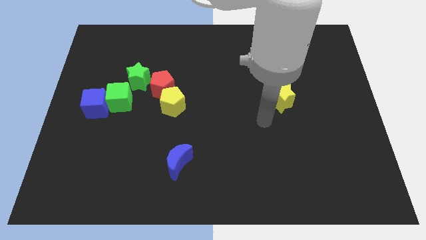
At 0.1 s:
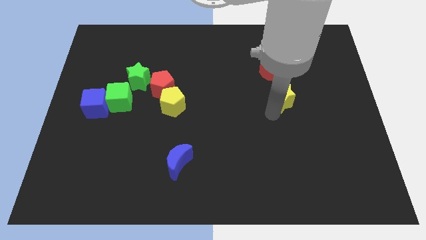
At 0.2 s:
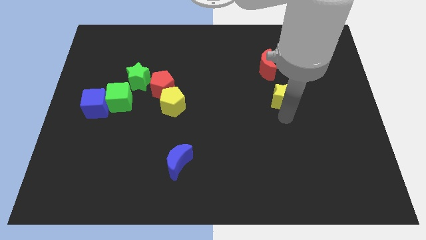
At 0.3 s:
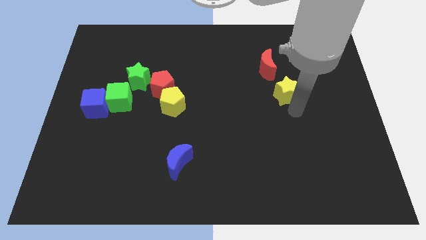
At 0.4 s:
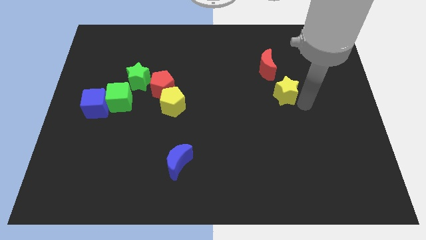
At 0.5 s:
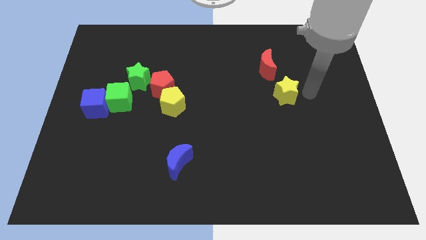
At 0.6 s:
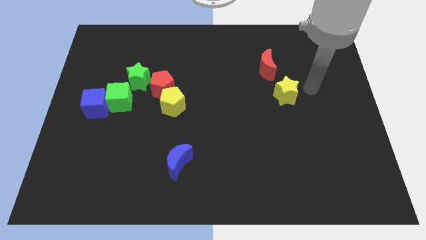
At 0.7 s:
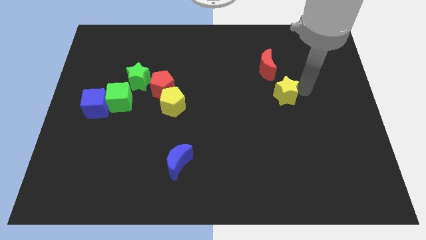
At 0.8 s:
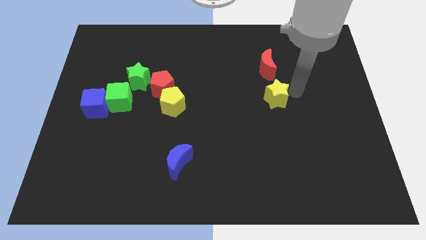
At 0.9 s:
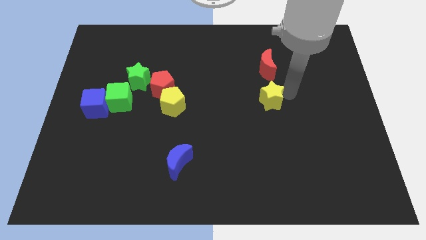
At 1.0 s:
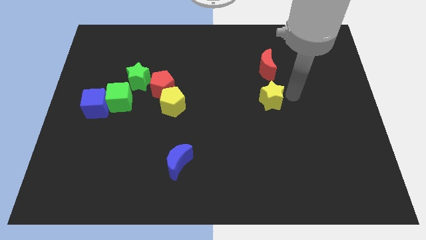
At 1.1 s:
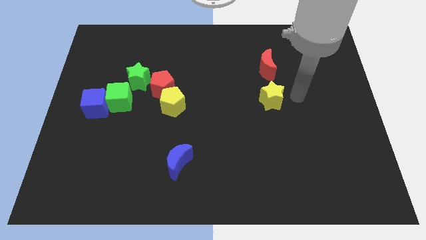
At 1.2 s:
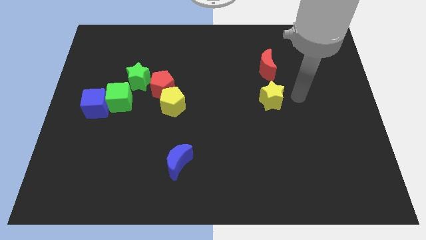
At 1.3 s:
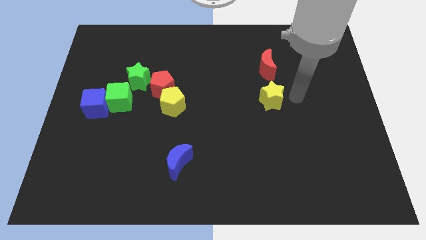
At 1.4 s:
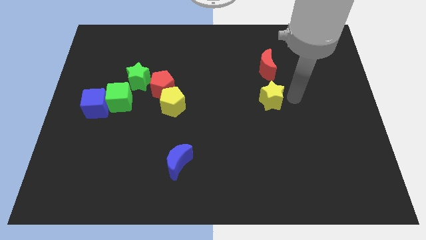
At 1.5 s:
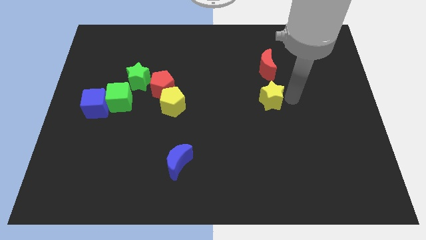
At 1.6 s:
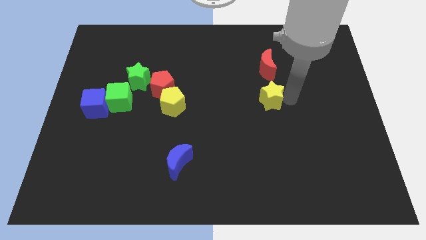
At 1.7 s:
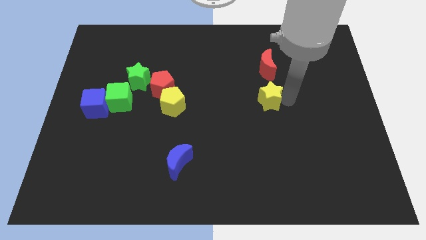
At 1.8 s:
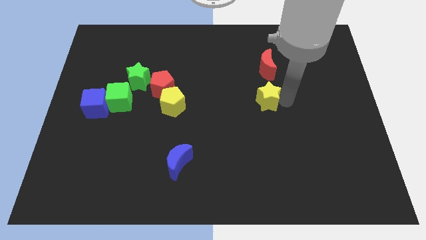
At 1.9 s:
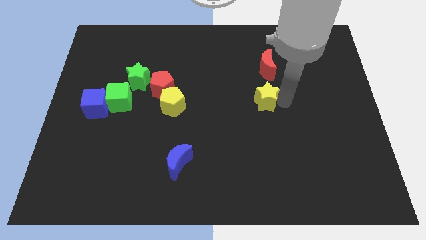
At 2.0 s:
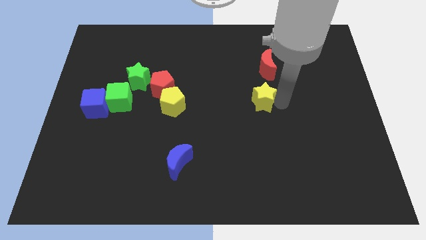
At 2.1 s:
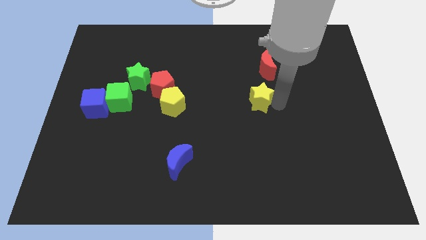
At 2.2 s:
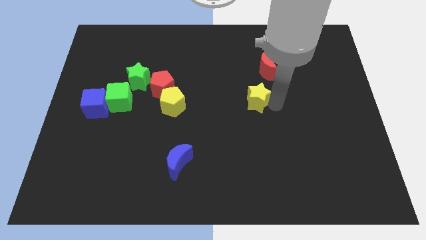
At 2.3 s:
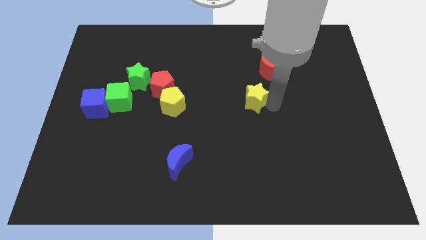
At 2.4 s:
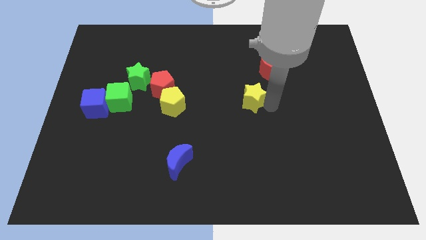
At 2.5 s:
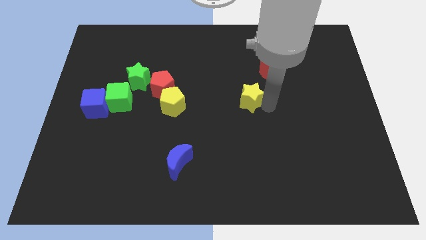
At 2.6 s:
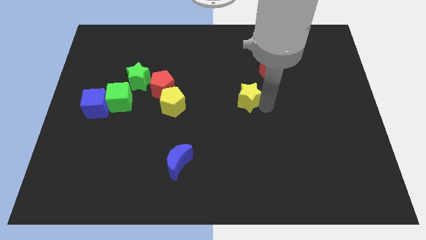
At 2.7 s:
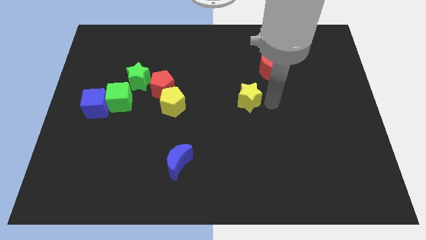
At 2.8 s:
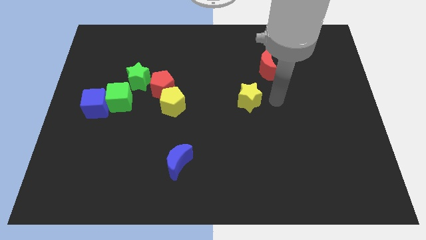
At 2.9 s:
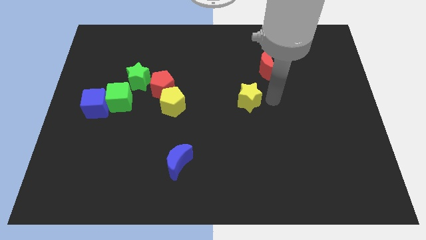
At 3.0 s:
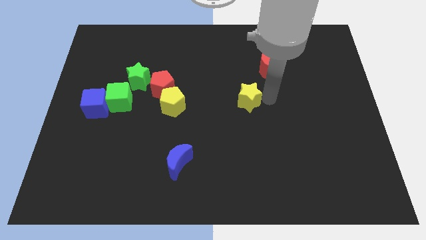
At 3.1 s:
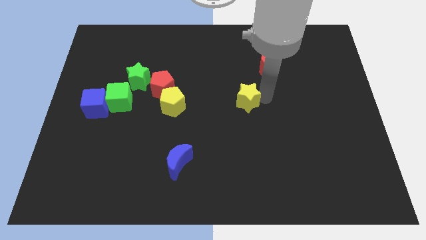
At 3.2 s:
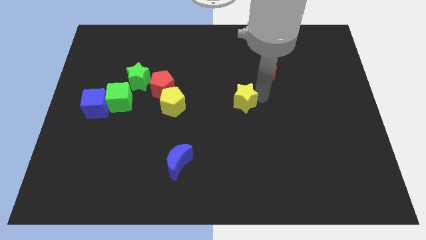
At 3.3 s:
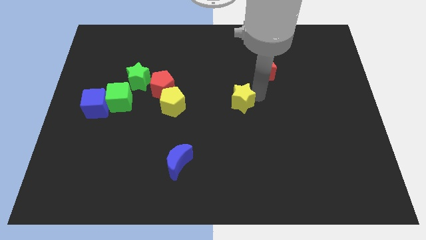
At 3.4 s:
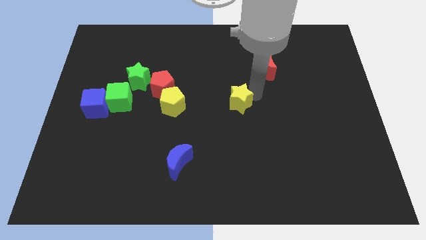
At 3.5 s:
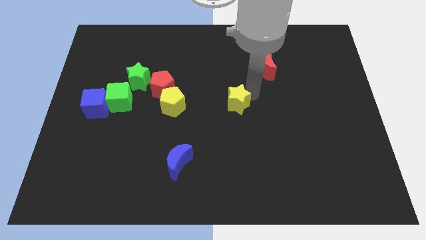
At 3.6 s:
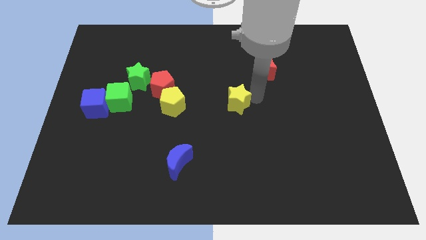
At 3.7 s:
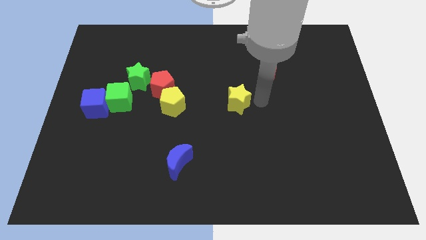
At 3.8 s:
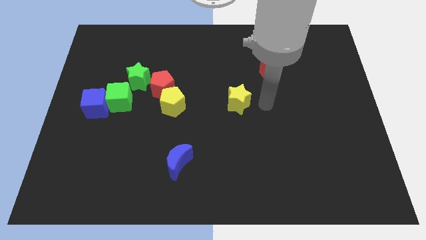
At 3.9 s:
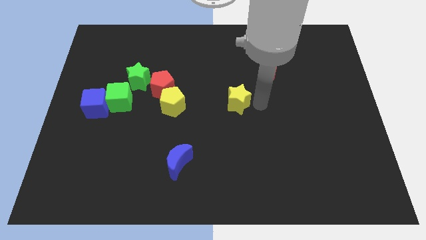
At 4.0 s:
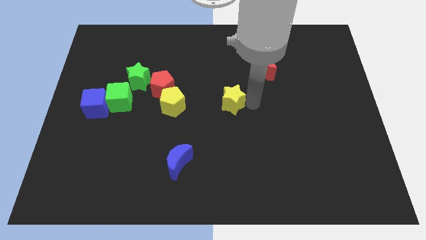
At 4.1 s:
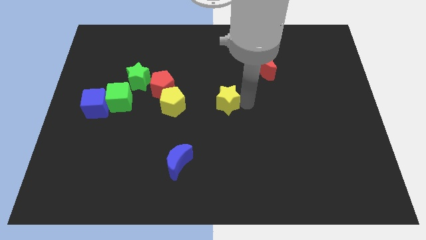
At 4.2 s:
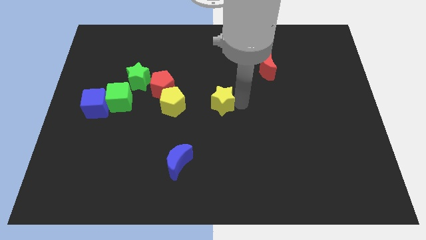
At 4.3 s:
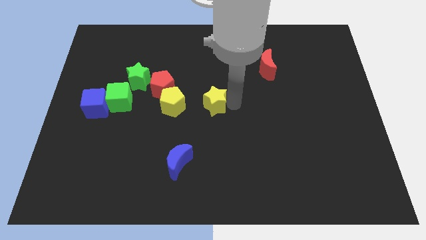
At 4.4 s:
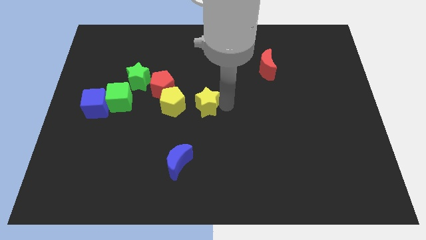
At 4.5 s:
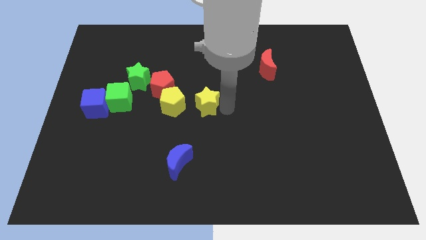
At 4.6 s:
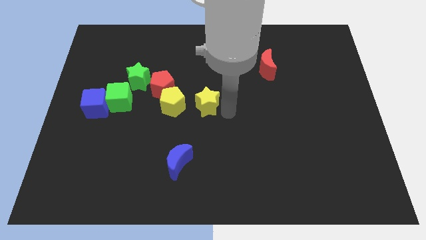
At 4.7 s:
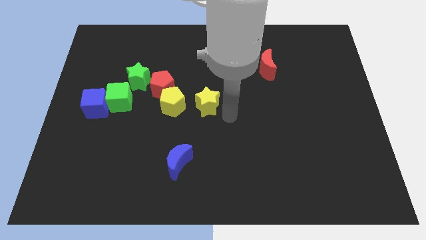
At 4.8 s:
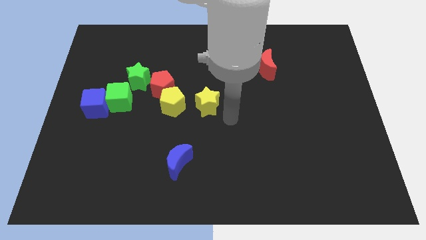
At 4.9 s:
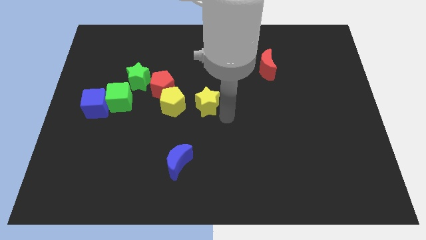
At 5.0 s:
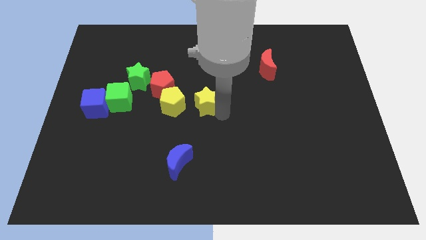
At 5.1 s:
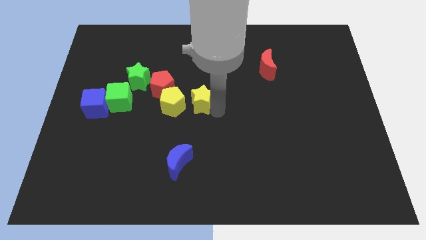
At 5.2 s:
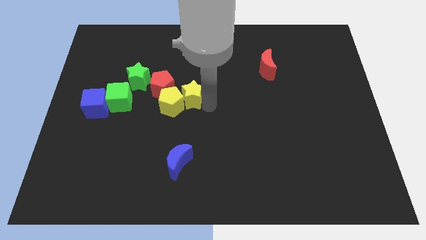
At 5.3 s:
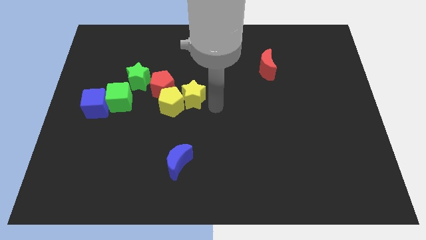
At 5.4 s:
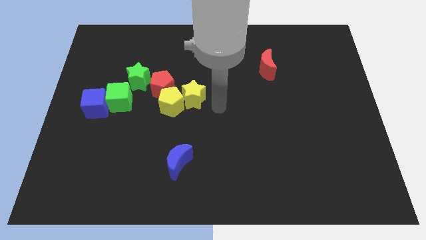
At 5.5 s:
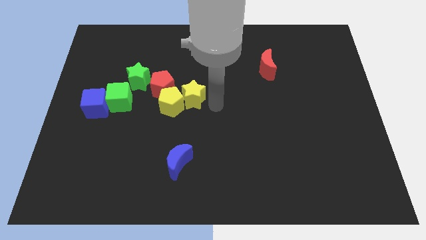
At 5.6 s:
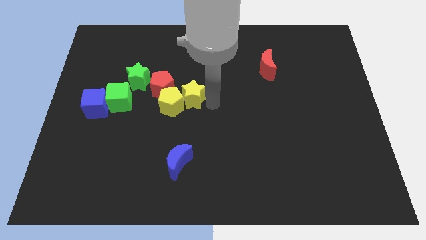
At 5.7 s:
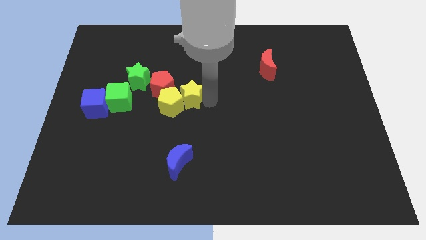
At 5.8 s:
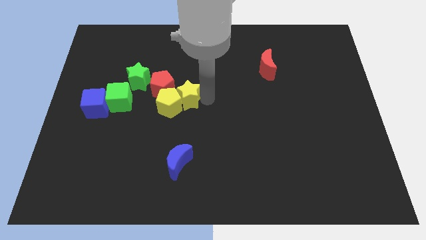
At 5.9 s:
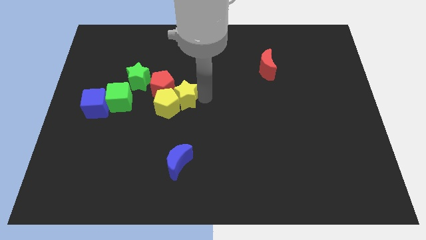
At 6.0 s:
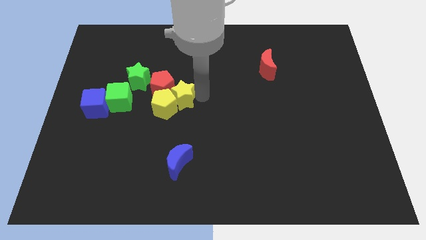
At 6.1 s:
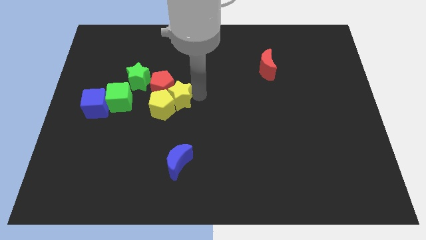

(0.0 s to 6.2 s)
move the yellow star close to the red pentagon

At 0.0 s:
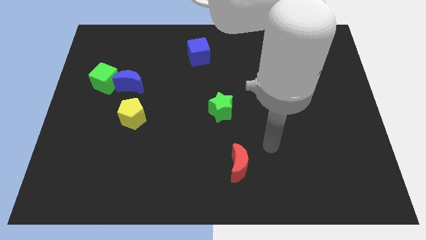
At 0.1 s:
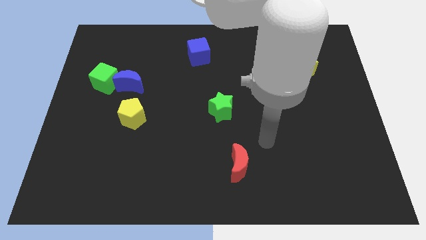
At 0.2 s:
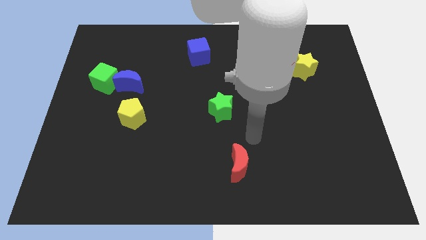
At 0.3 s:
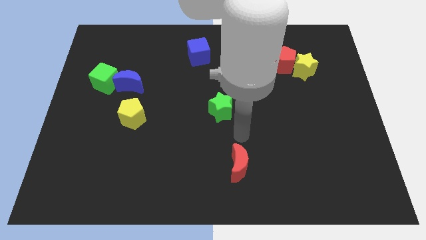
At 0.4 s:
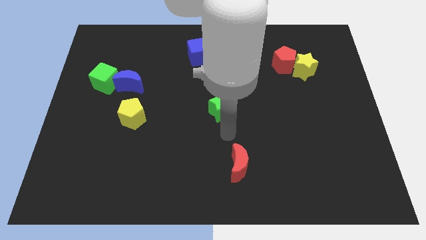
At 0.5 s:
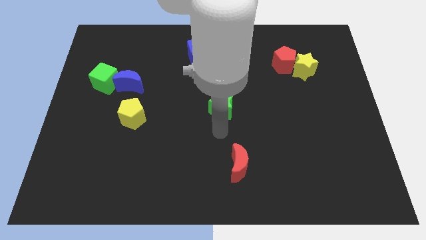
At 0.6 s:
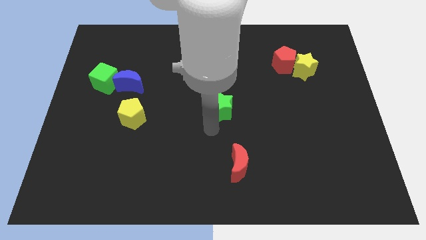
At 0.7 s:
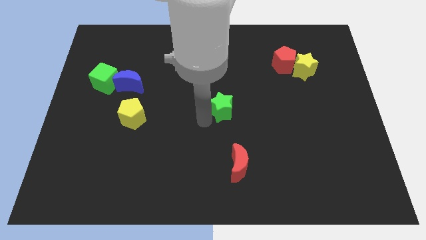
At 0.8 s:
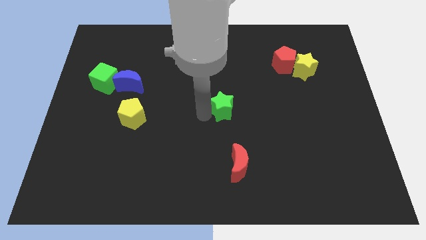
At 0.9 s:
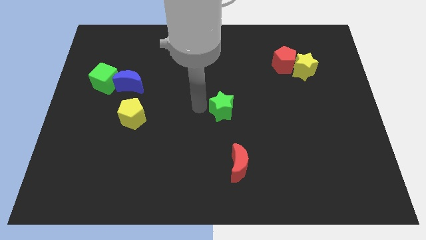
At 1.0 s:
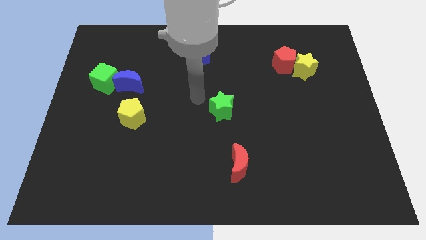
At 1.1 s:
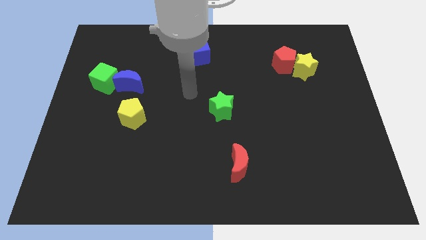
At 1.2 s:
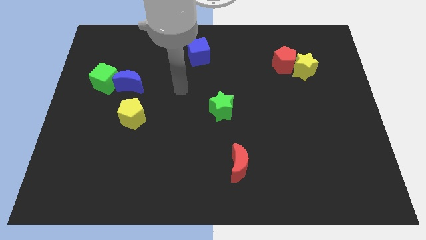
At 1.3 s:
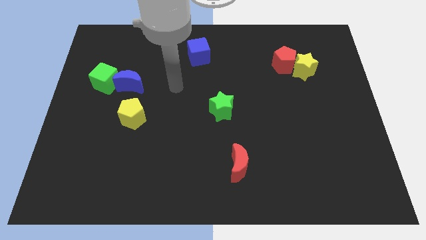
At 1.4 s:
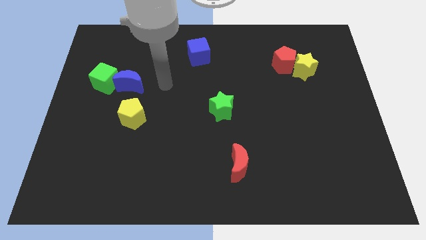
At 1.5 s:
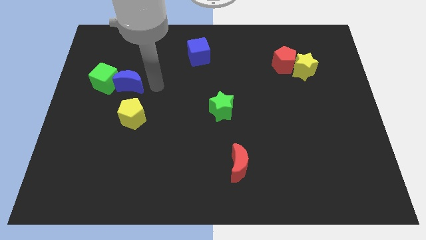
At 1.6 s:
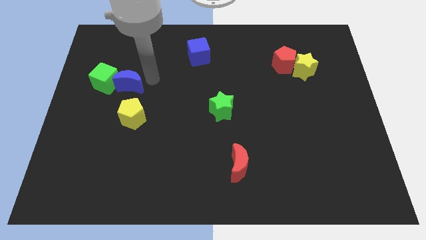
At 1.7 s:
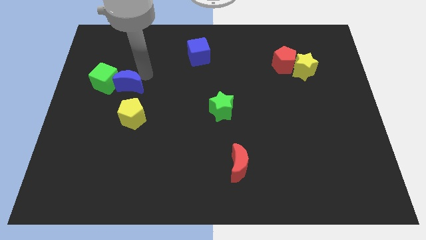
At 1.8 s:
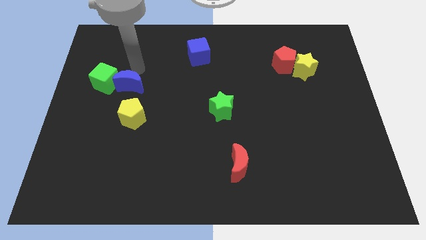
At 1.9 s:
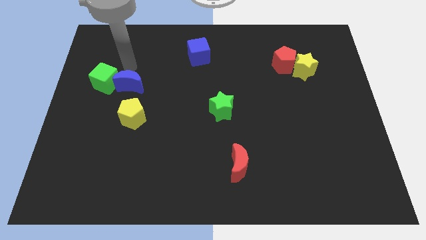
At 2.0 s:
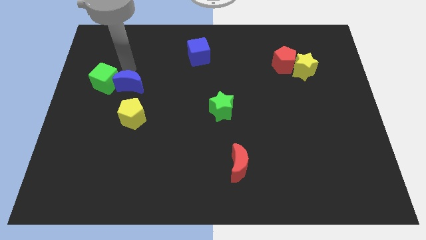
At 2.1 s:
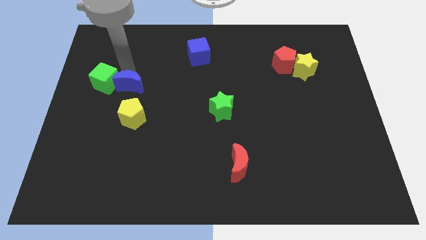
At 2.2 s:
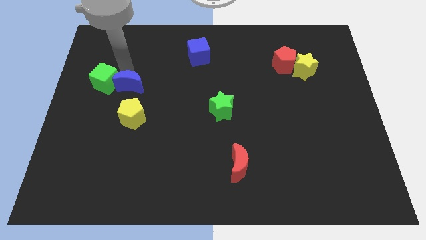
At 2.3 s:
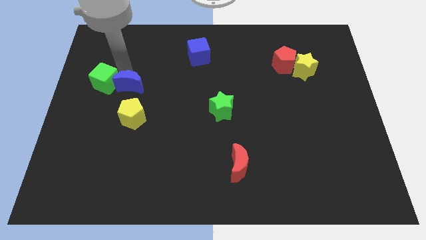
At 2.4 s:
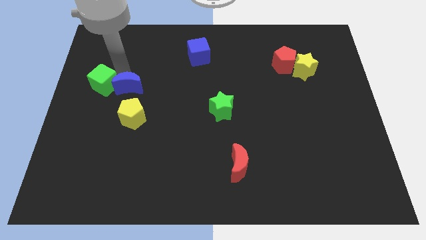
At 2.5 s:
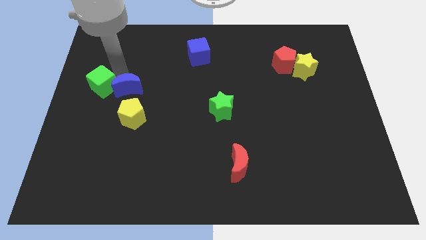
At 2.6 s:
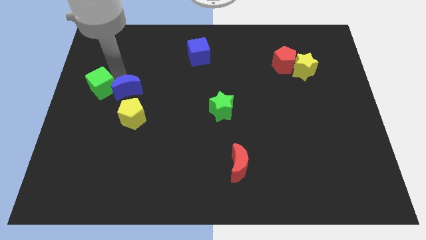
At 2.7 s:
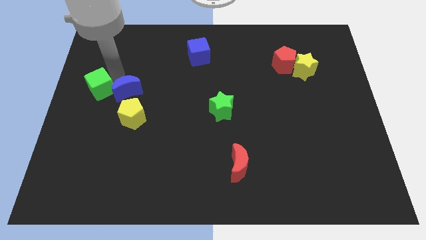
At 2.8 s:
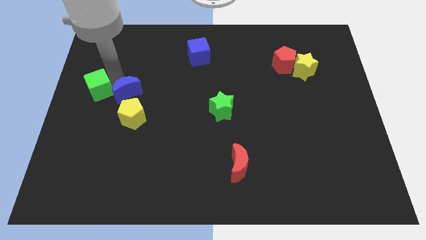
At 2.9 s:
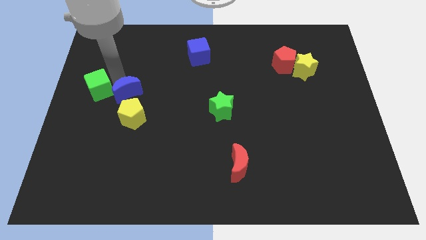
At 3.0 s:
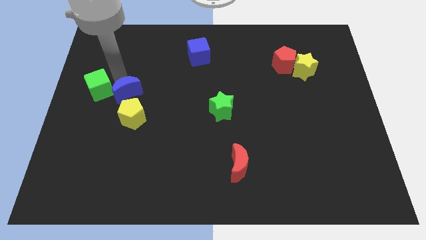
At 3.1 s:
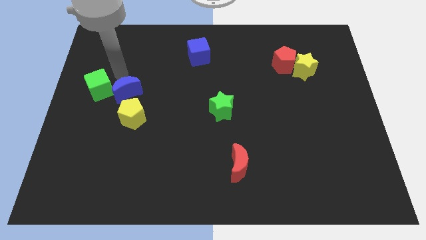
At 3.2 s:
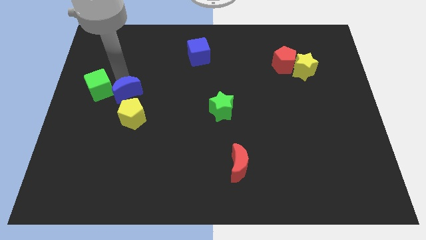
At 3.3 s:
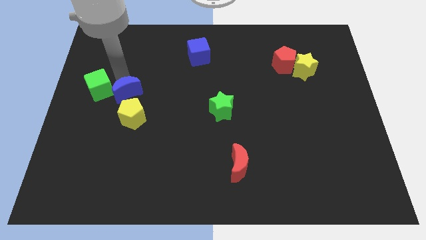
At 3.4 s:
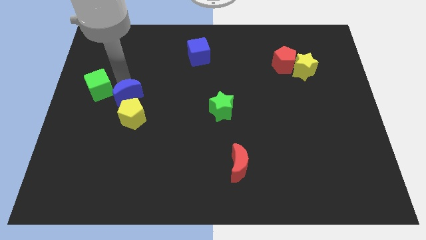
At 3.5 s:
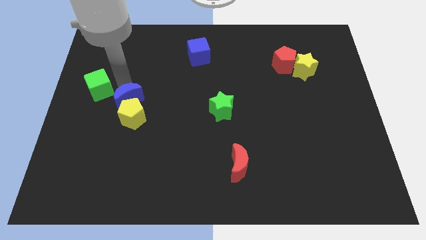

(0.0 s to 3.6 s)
put the blue moon close to the yellow pentagon
